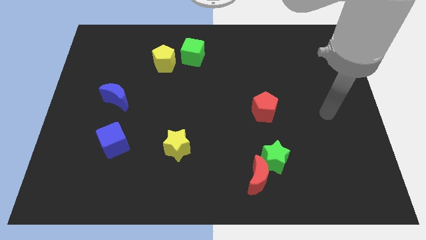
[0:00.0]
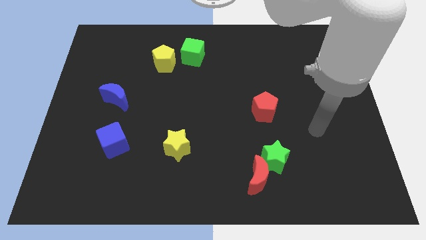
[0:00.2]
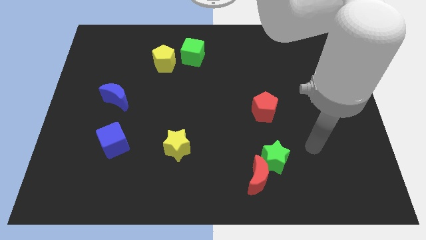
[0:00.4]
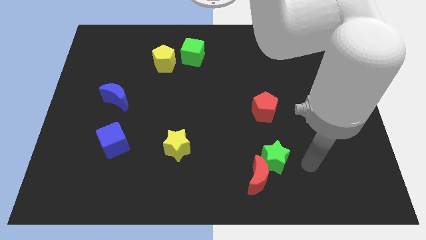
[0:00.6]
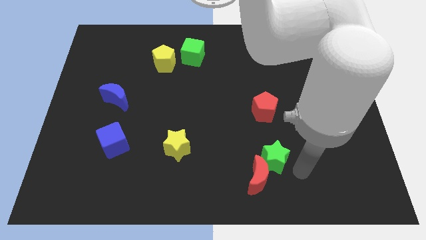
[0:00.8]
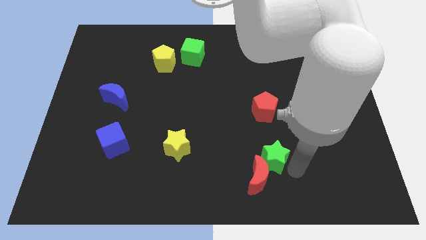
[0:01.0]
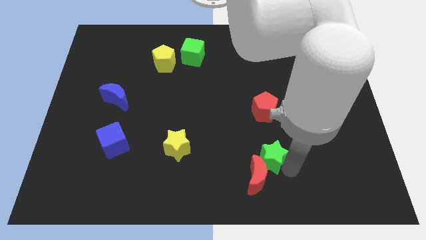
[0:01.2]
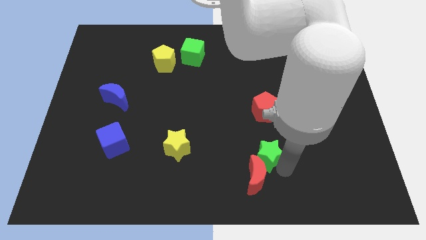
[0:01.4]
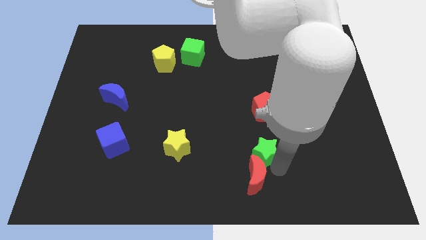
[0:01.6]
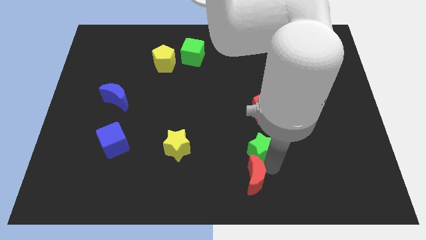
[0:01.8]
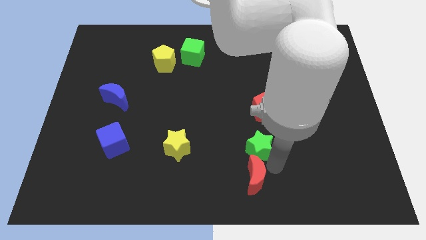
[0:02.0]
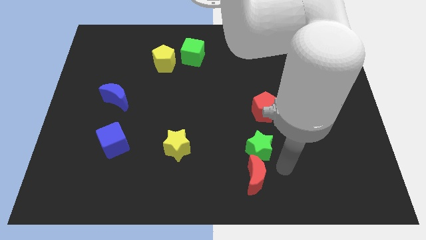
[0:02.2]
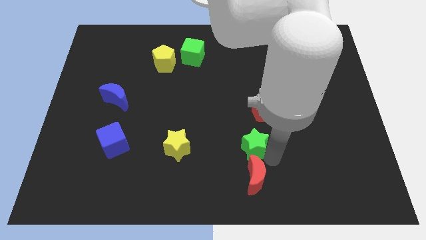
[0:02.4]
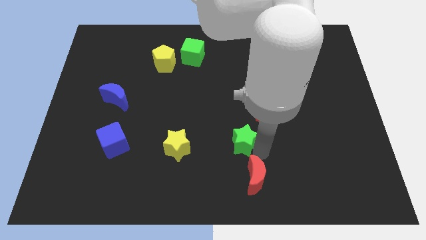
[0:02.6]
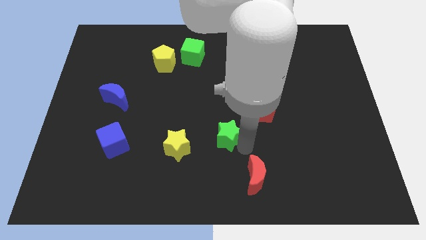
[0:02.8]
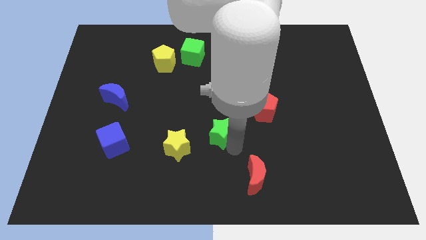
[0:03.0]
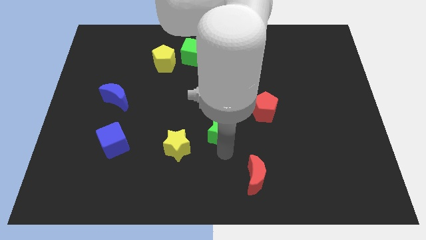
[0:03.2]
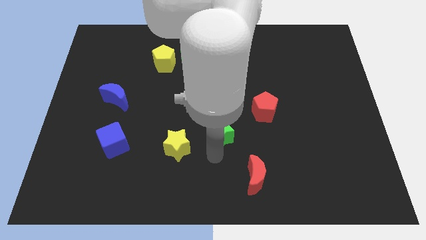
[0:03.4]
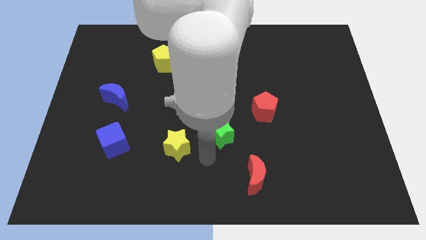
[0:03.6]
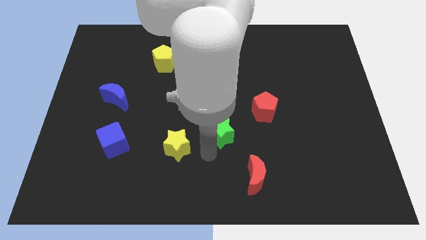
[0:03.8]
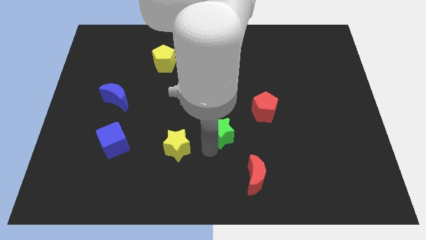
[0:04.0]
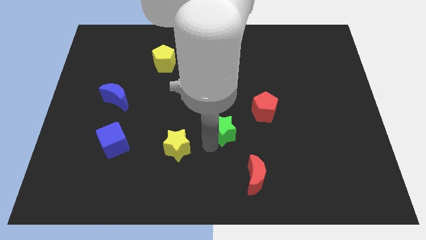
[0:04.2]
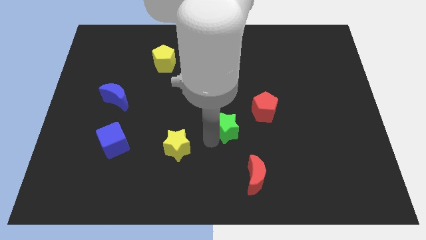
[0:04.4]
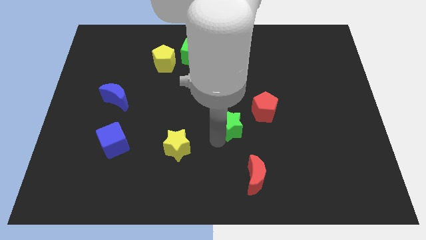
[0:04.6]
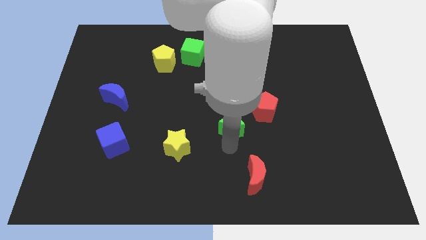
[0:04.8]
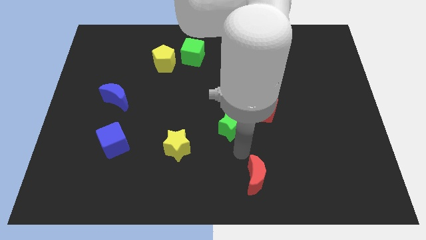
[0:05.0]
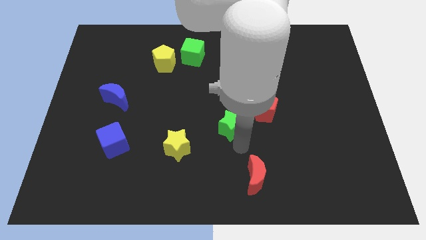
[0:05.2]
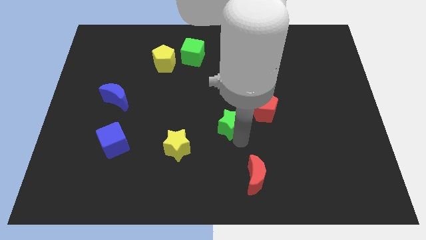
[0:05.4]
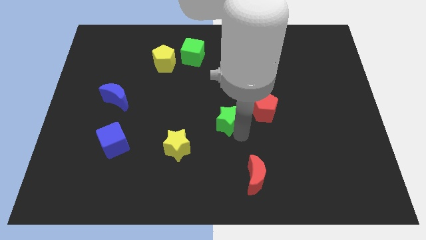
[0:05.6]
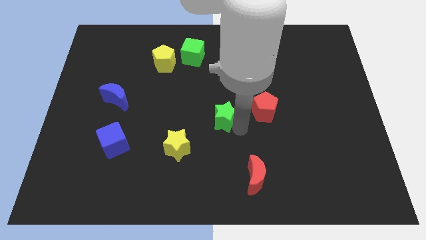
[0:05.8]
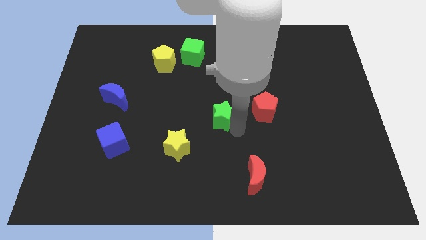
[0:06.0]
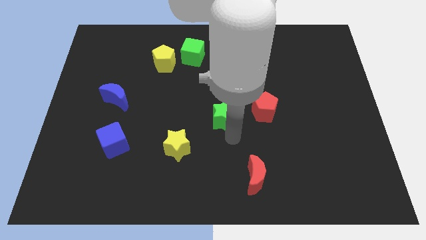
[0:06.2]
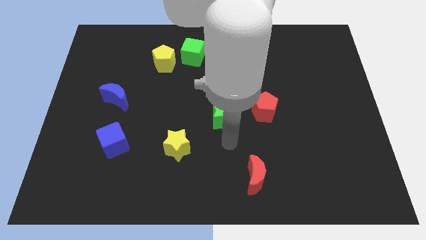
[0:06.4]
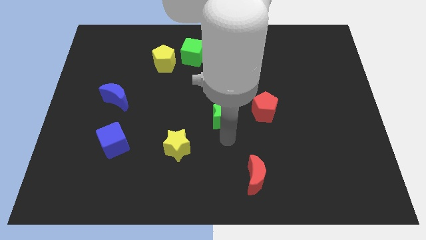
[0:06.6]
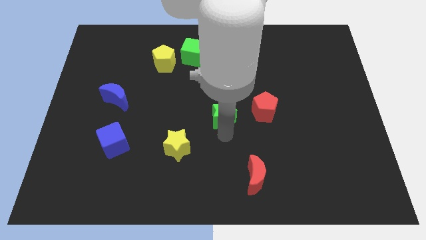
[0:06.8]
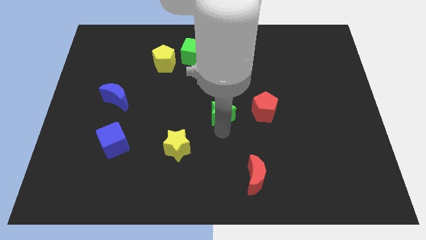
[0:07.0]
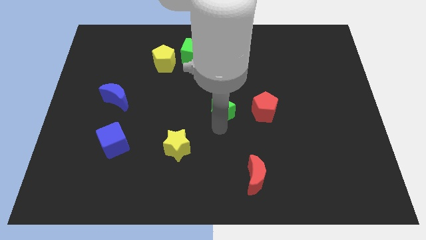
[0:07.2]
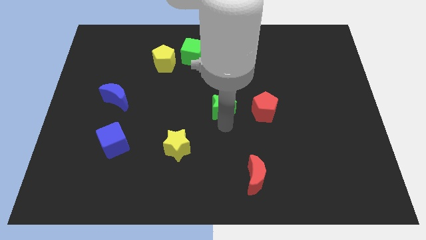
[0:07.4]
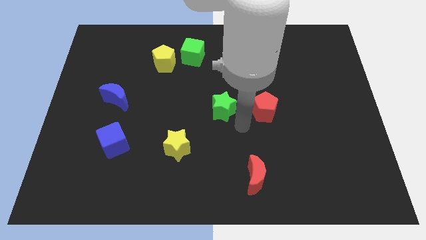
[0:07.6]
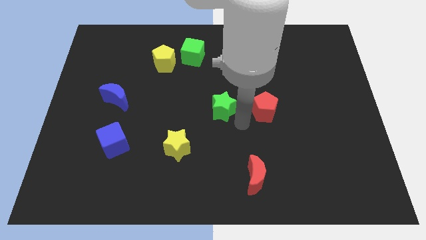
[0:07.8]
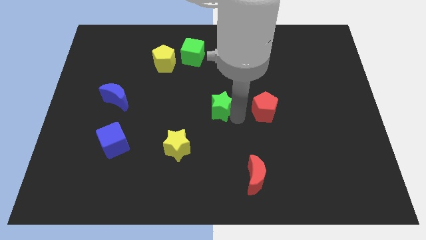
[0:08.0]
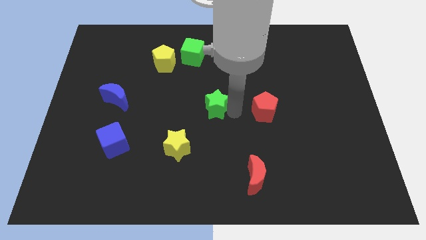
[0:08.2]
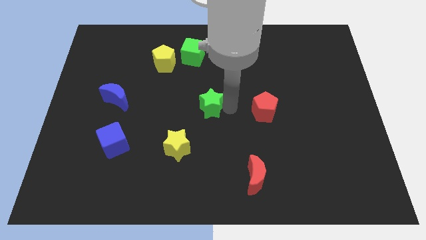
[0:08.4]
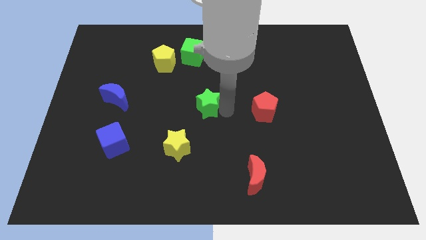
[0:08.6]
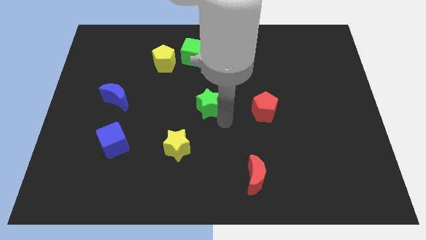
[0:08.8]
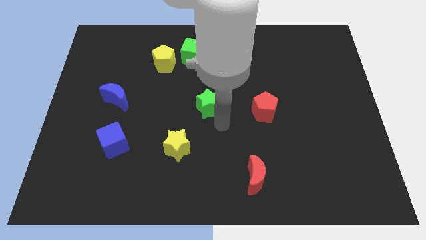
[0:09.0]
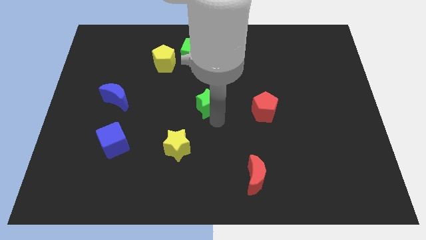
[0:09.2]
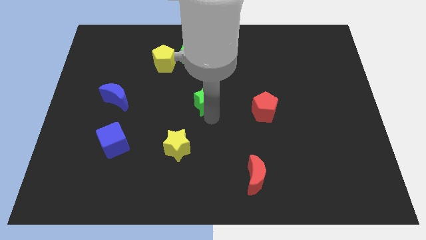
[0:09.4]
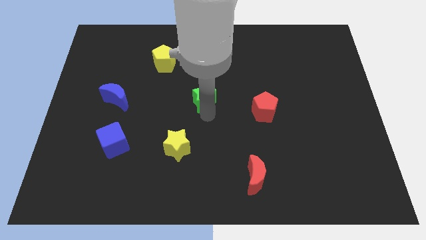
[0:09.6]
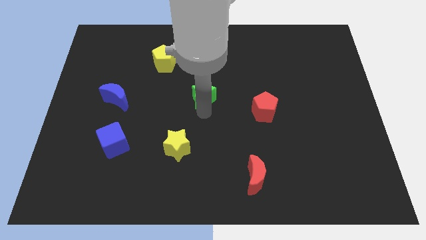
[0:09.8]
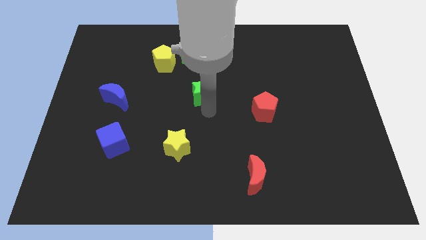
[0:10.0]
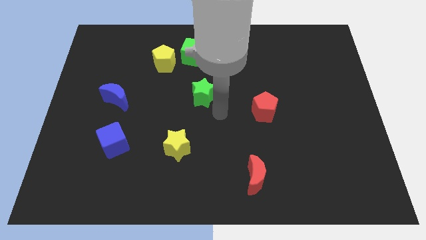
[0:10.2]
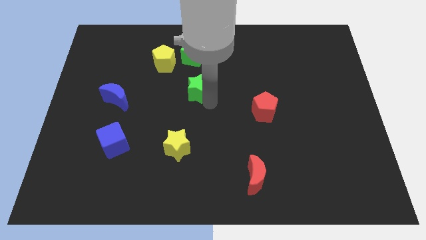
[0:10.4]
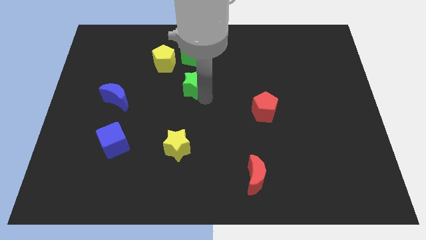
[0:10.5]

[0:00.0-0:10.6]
move the green star to the bottom right side of the yellow pentagon

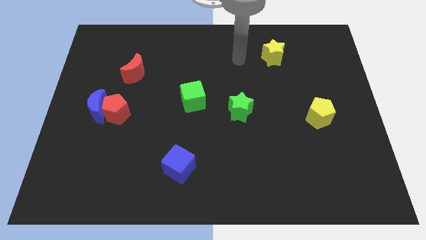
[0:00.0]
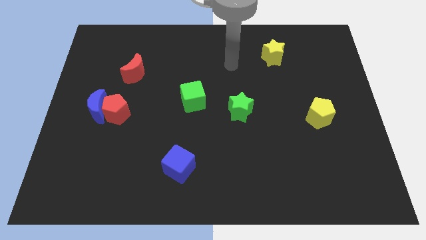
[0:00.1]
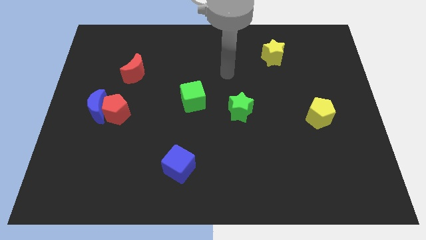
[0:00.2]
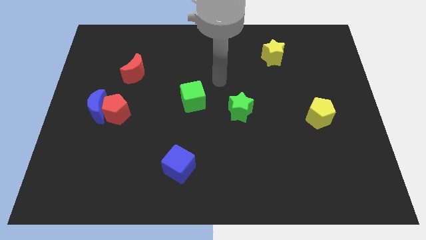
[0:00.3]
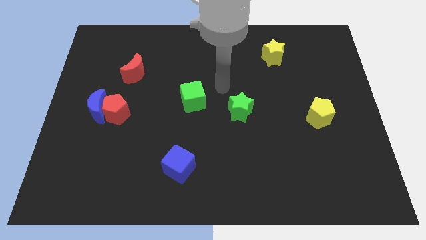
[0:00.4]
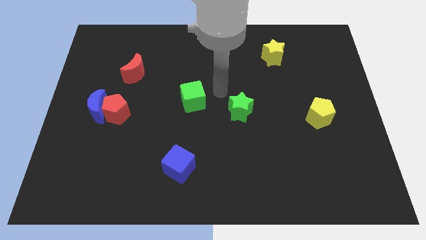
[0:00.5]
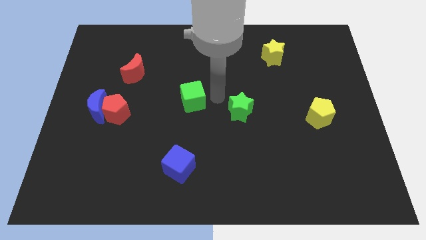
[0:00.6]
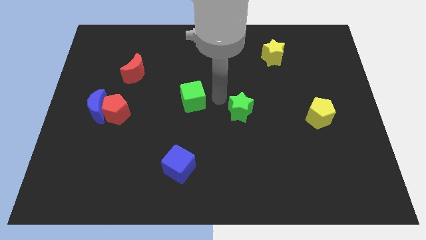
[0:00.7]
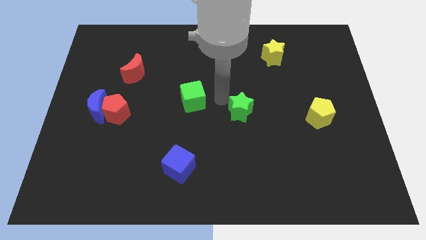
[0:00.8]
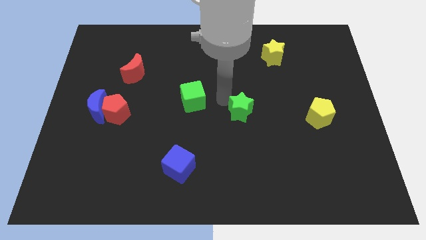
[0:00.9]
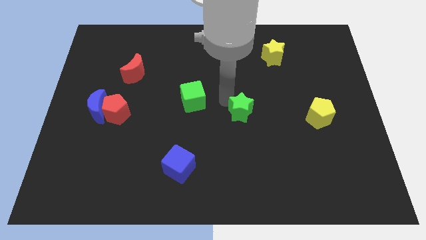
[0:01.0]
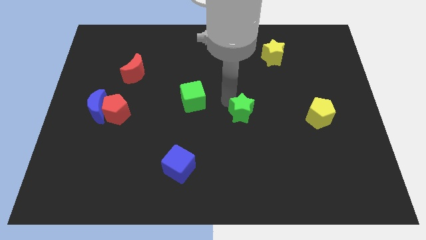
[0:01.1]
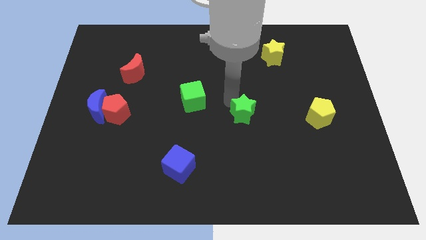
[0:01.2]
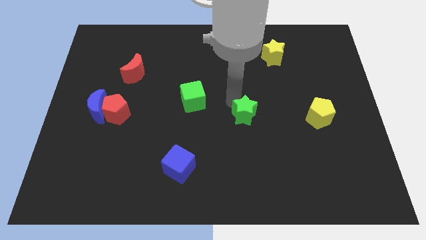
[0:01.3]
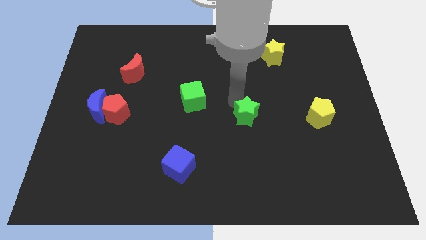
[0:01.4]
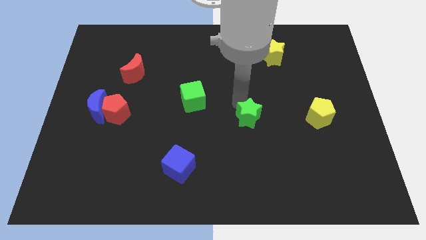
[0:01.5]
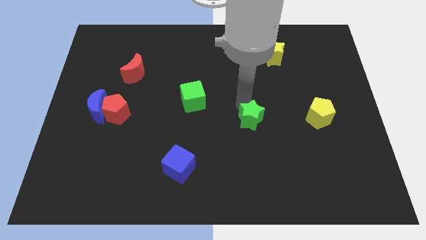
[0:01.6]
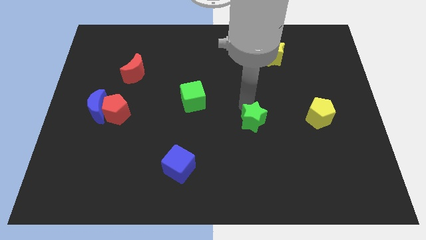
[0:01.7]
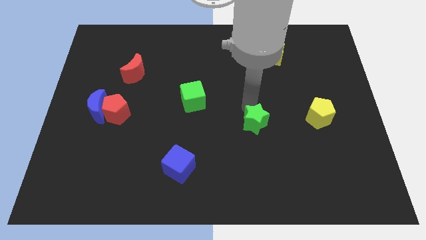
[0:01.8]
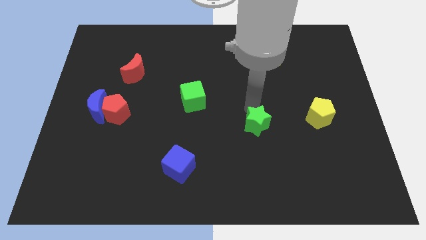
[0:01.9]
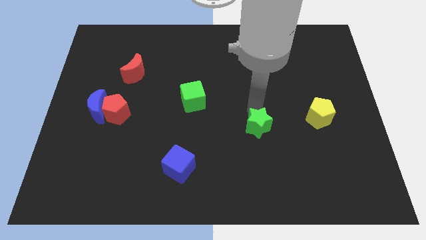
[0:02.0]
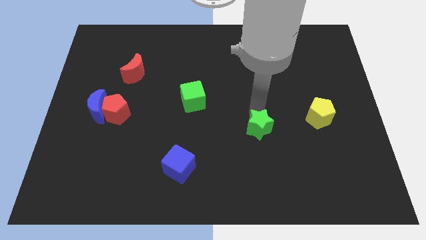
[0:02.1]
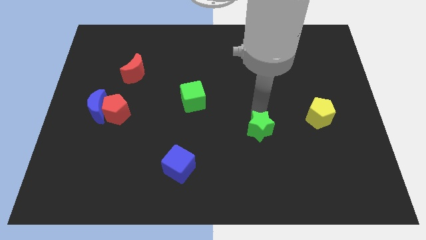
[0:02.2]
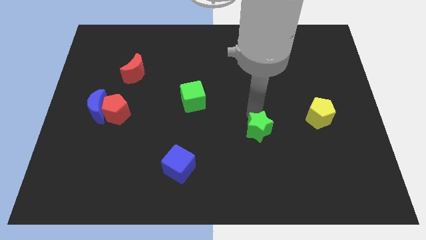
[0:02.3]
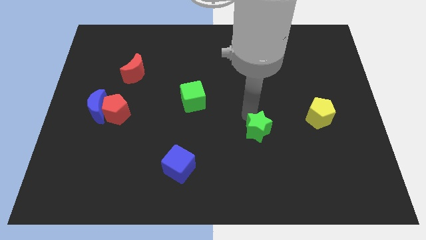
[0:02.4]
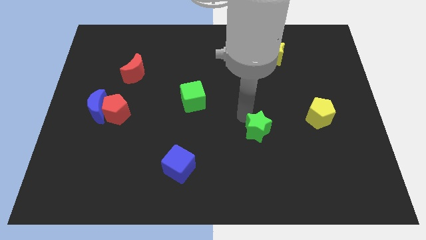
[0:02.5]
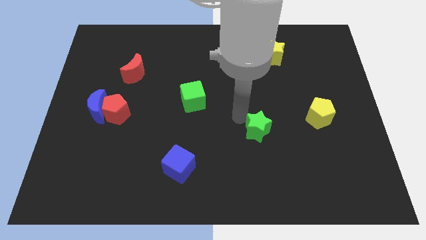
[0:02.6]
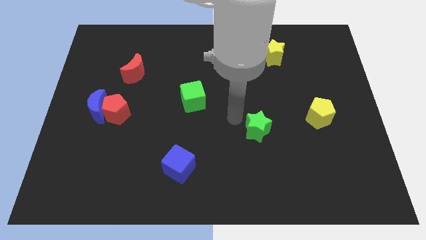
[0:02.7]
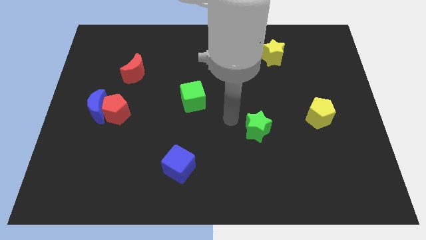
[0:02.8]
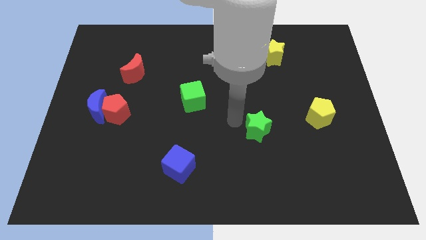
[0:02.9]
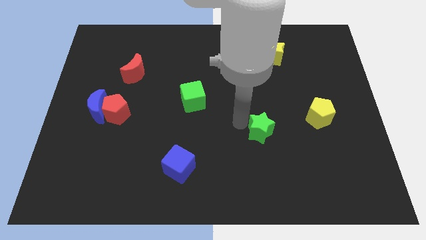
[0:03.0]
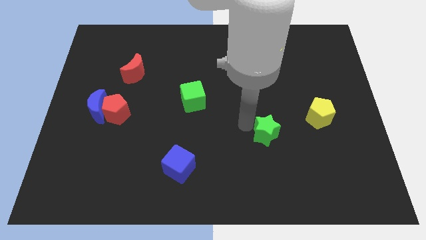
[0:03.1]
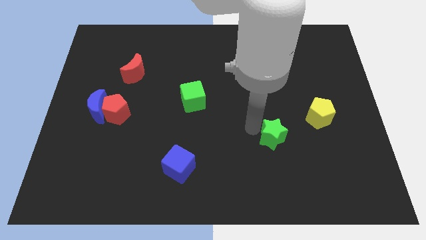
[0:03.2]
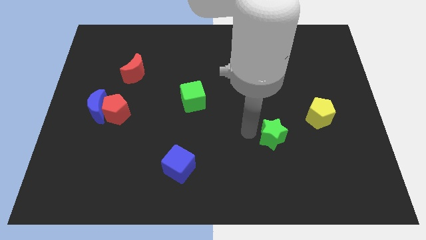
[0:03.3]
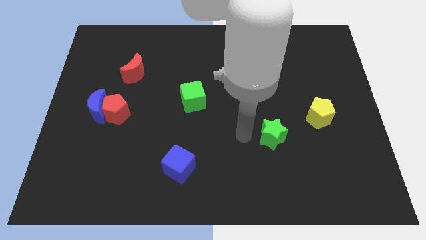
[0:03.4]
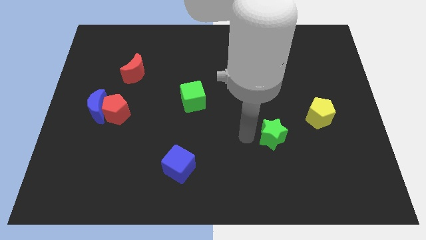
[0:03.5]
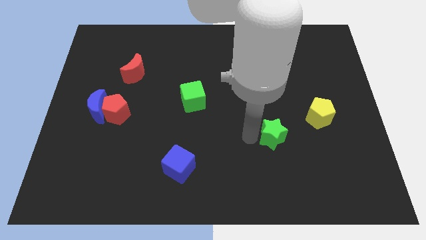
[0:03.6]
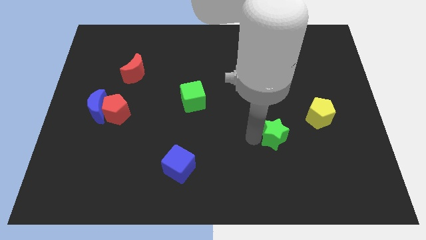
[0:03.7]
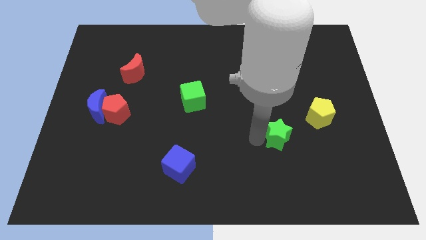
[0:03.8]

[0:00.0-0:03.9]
put the green star diagonally down and to the left of the yellow pentagon
